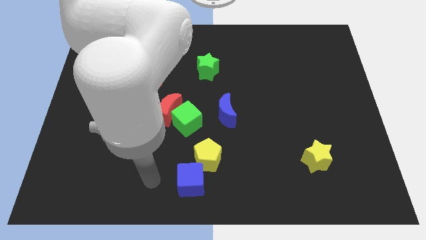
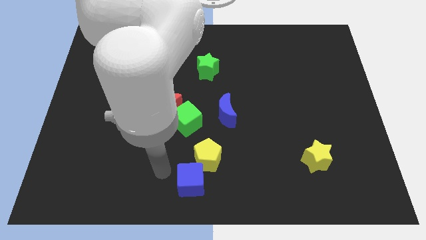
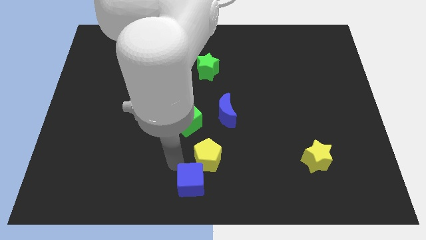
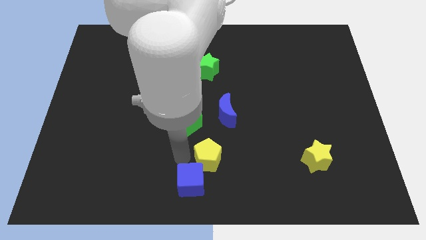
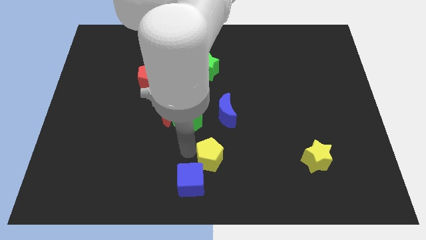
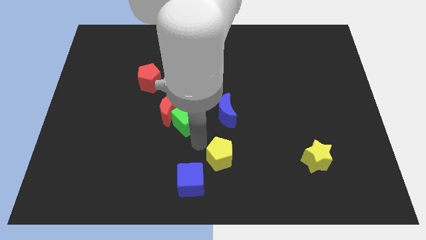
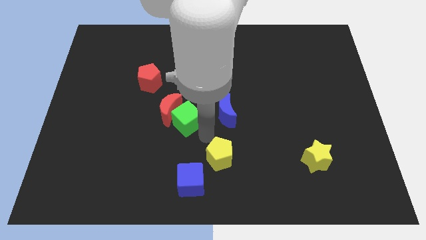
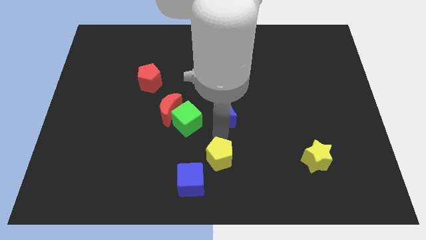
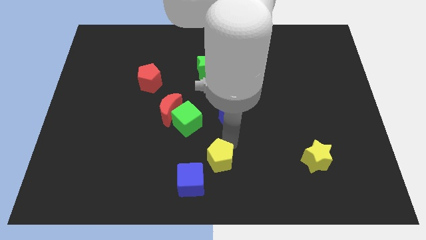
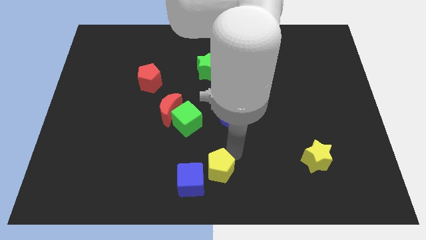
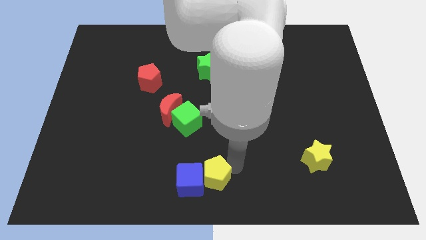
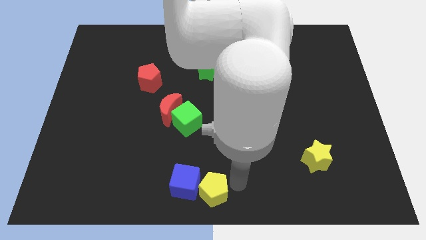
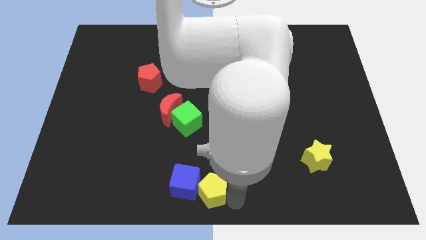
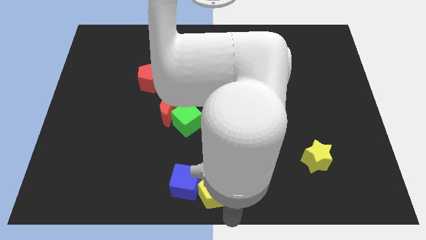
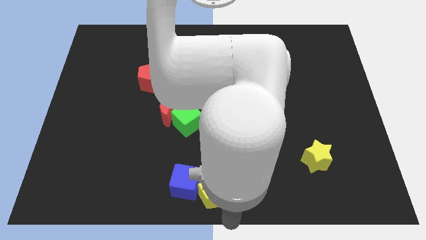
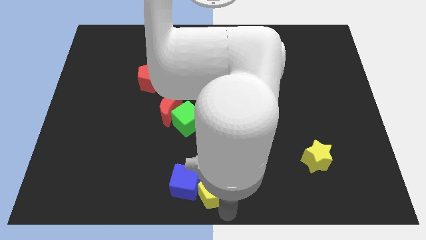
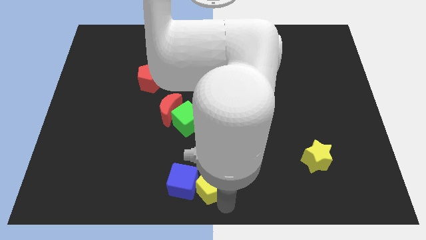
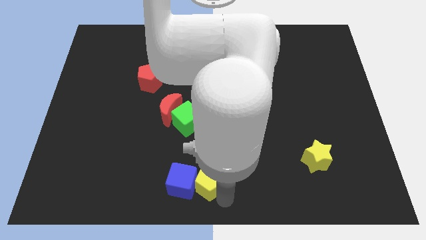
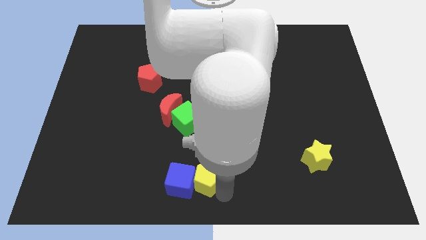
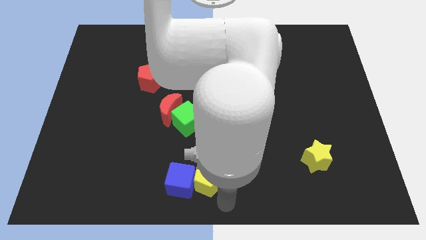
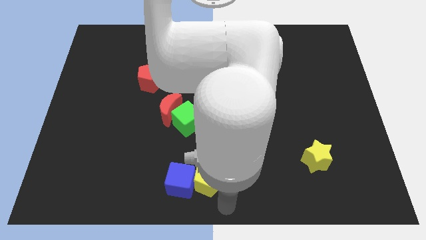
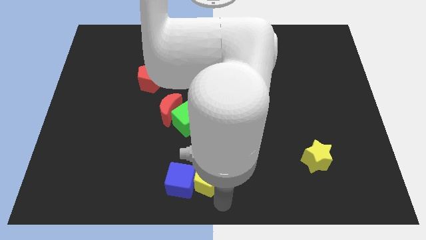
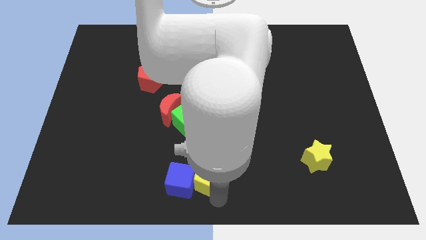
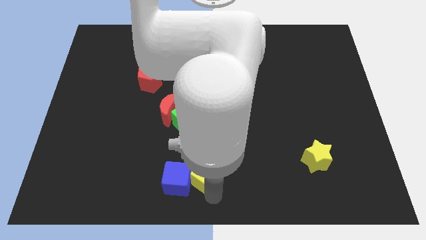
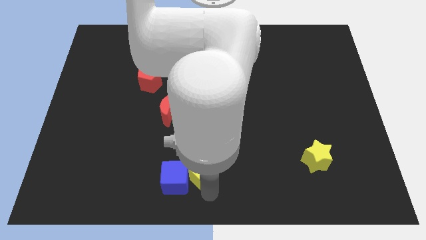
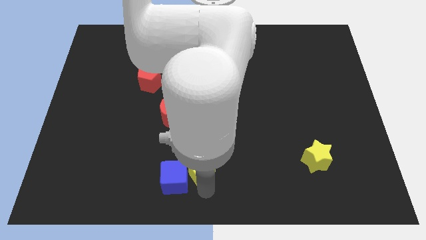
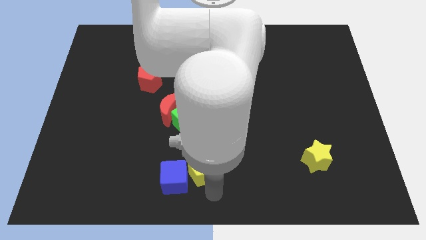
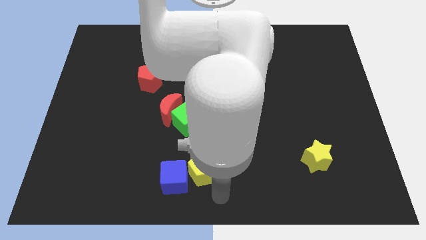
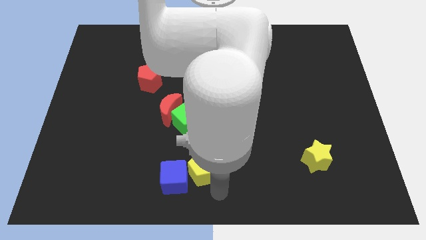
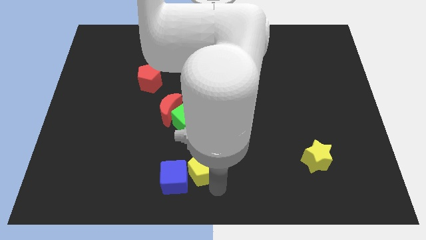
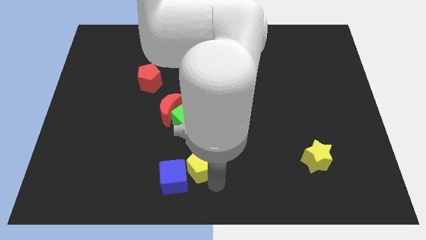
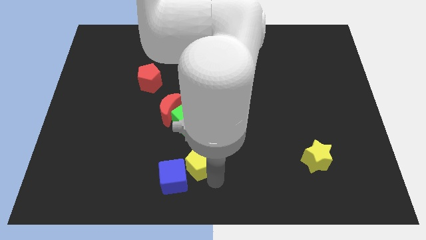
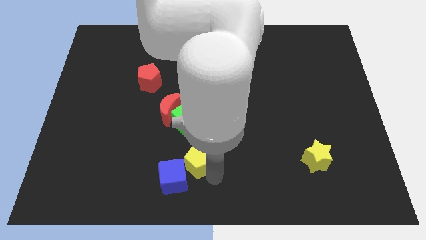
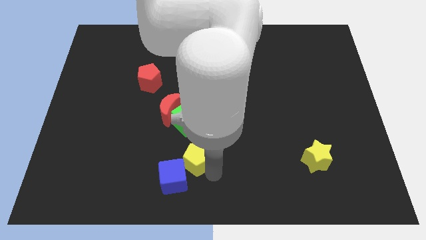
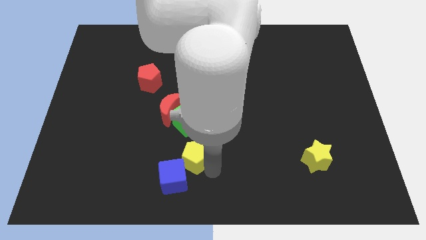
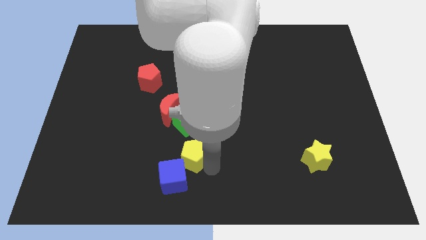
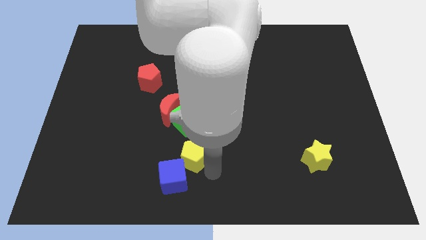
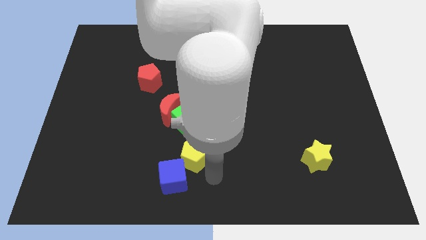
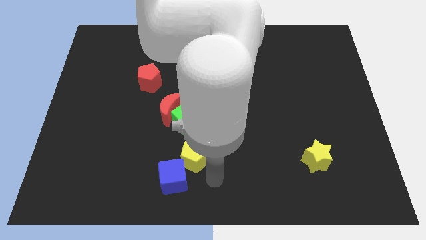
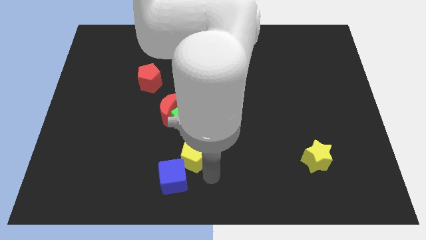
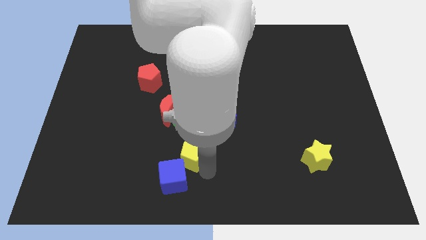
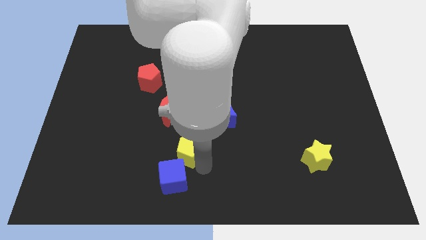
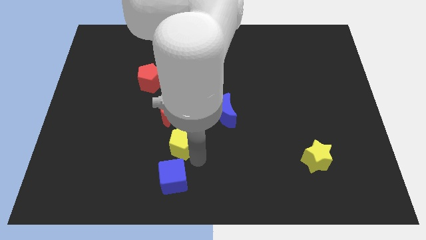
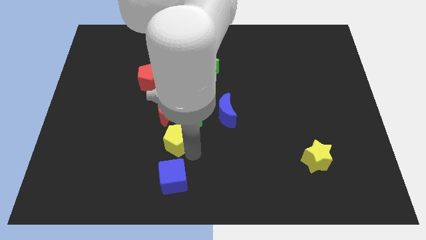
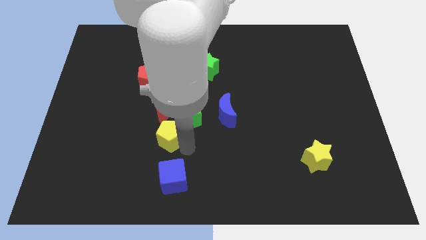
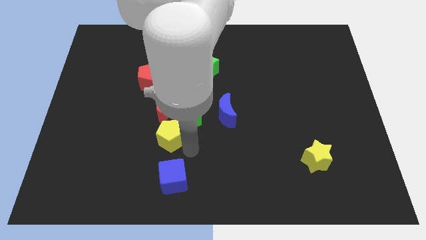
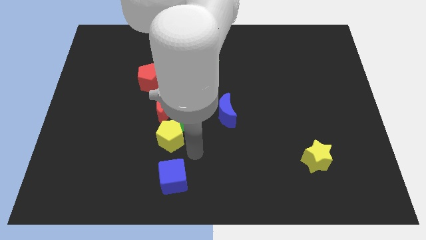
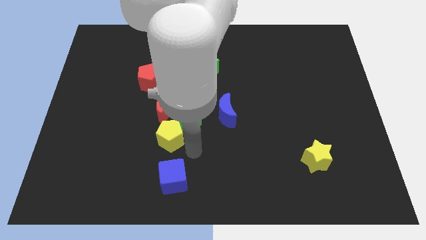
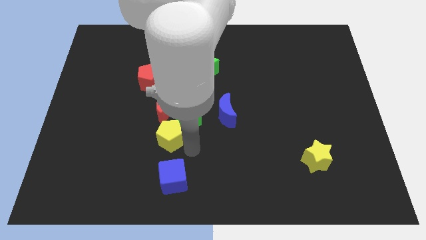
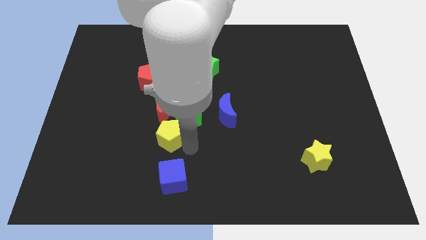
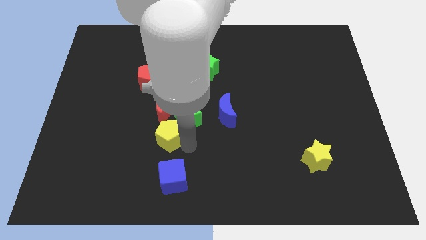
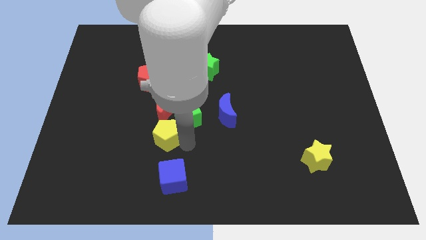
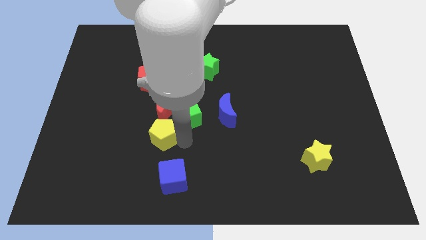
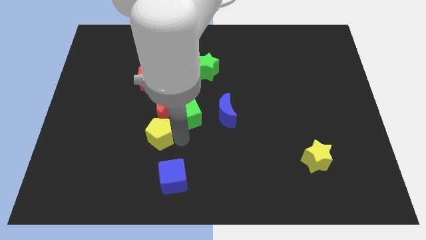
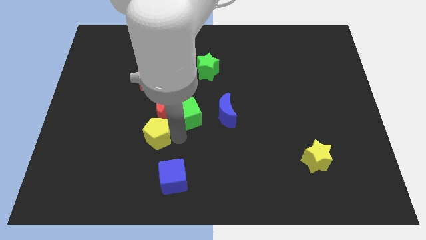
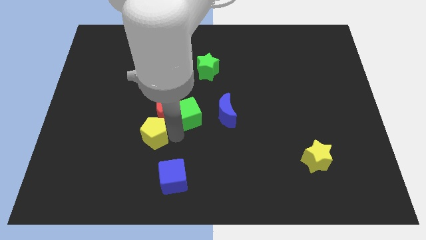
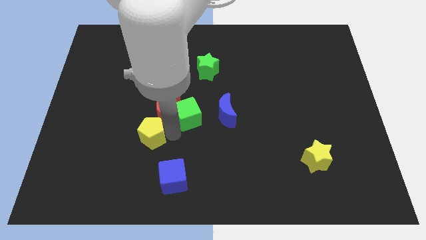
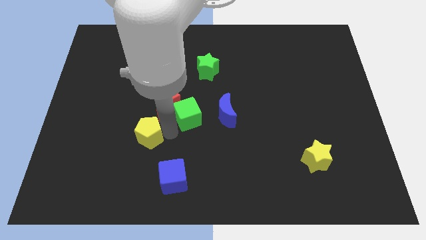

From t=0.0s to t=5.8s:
put the yellow pentagon just left of the green cube

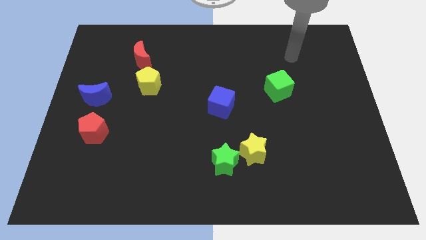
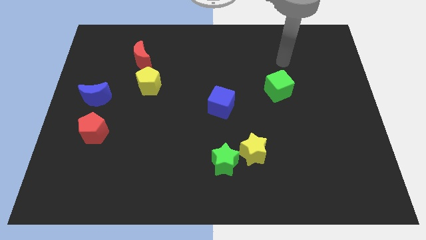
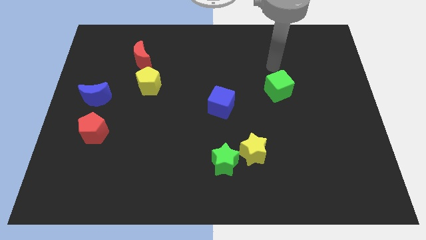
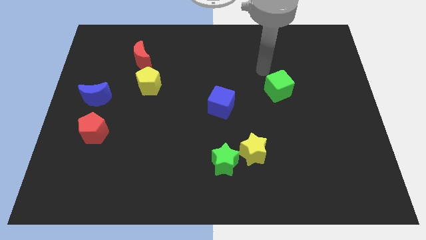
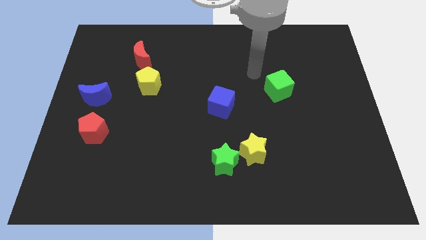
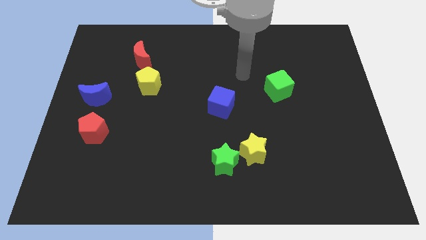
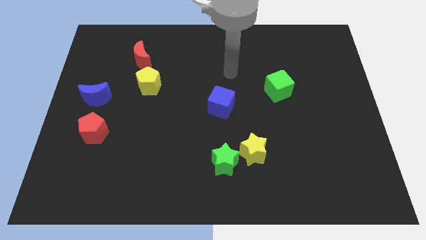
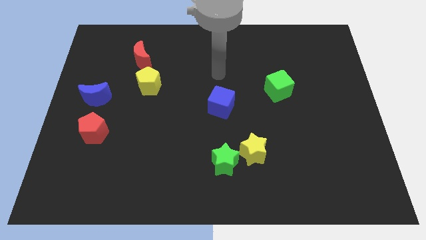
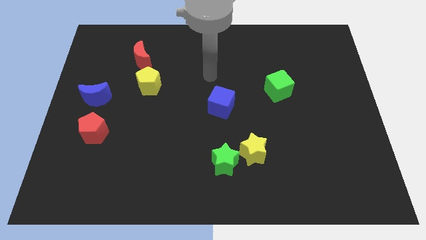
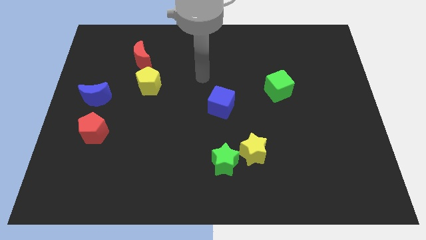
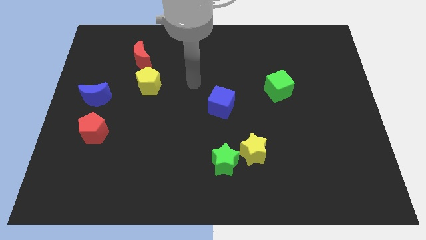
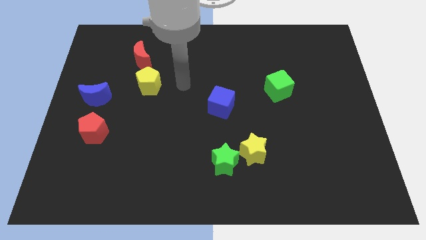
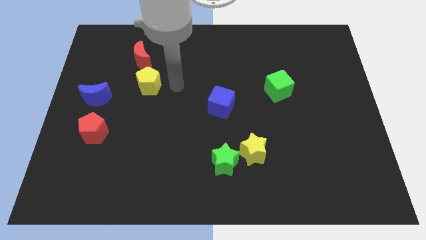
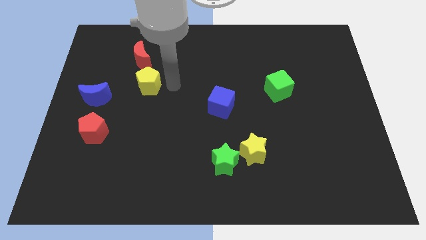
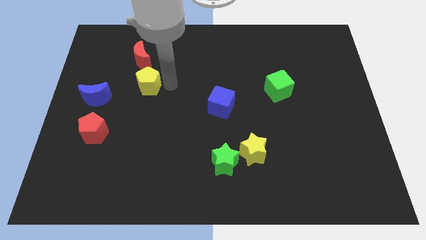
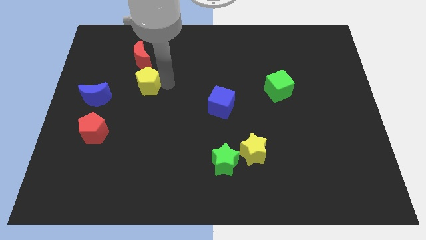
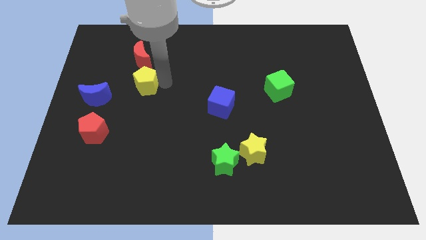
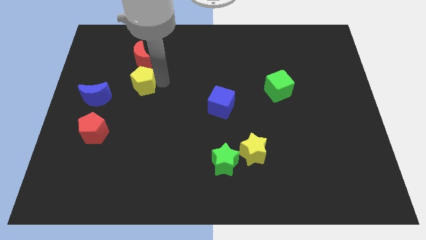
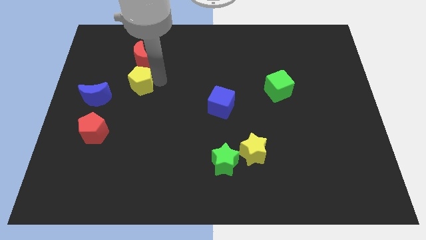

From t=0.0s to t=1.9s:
put the yellow pentagon to the top right side of the blue moon
